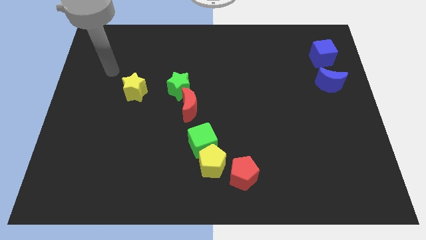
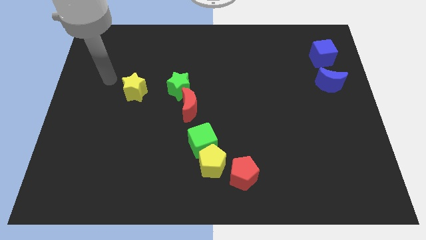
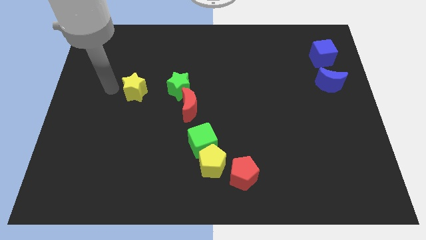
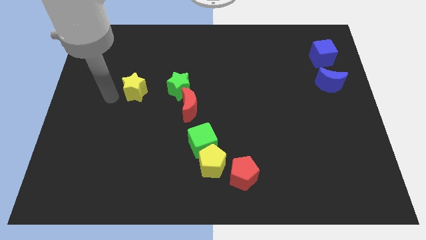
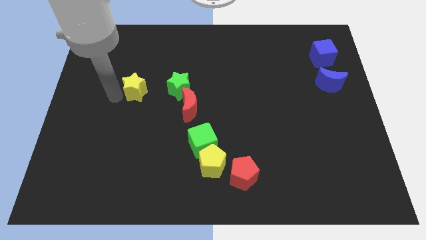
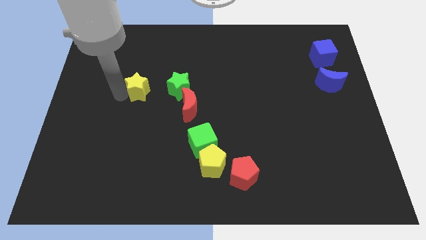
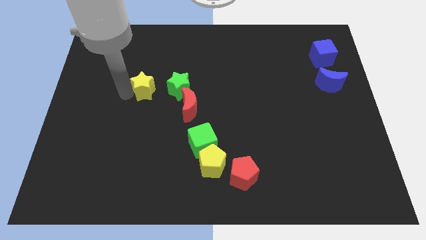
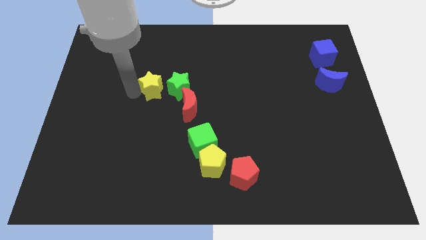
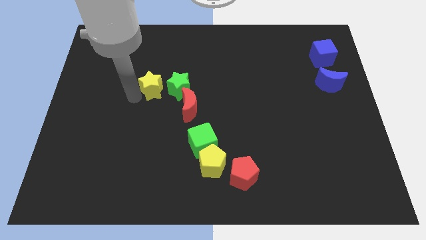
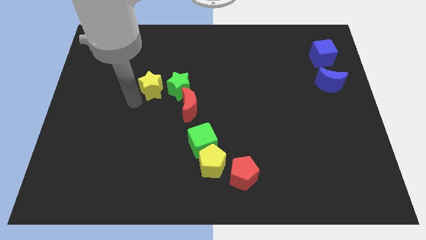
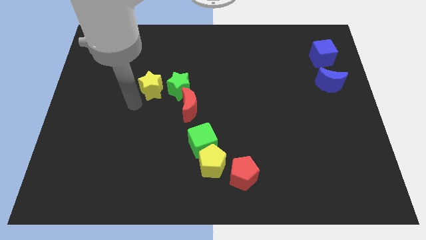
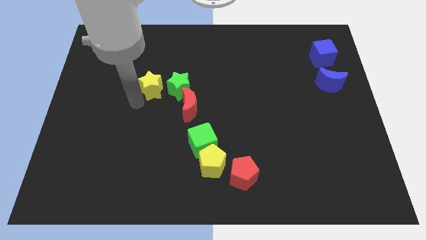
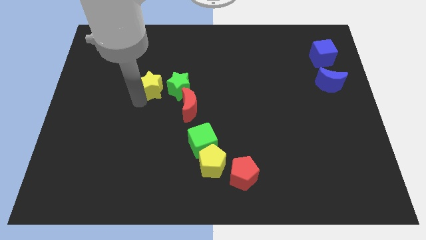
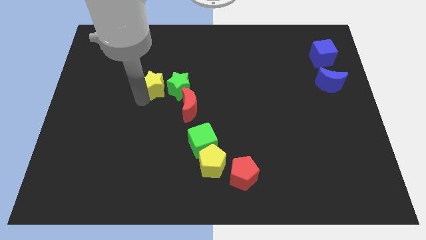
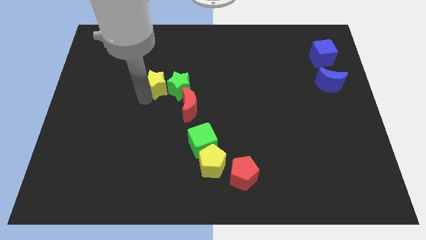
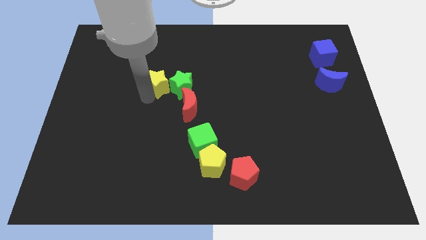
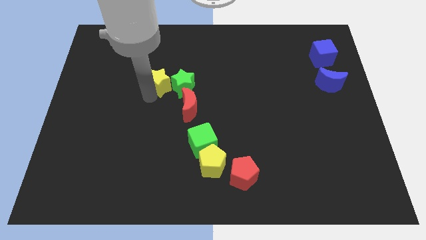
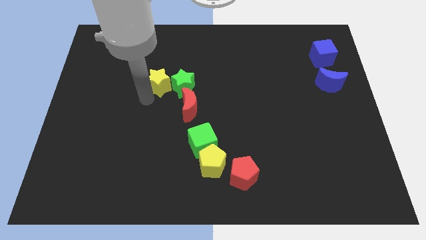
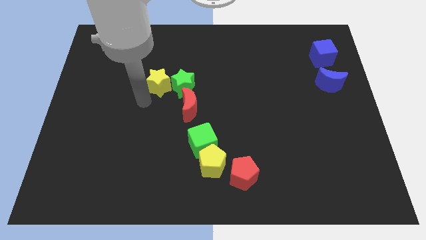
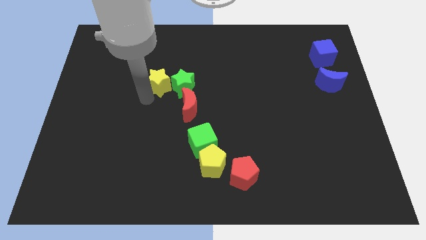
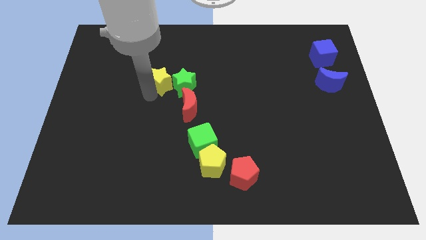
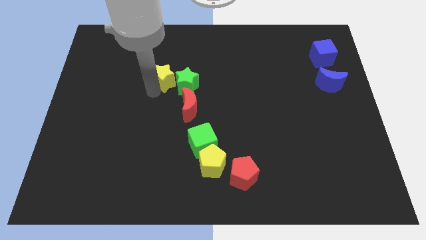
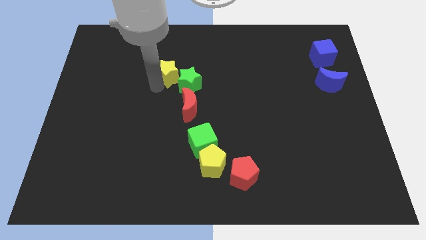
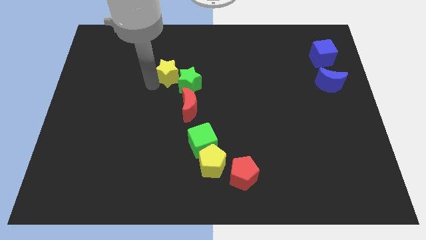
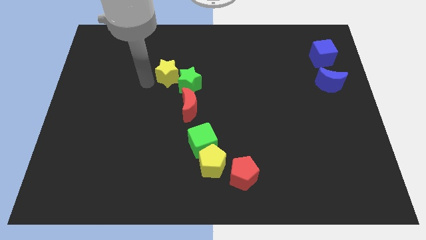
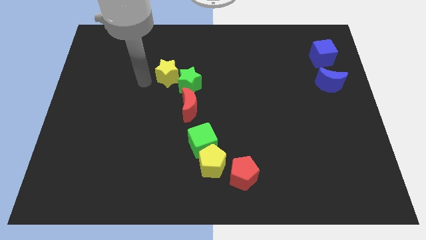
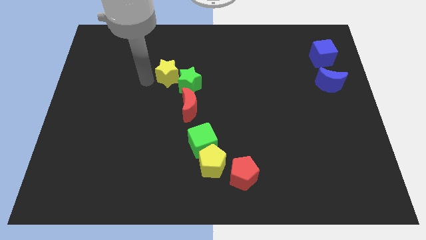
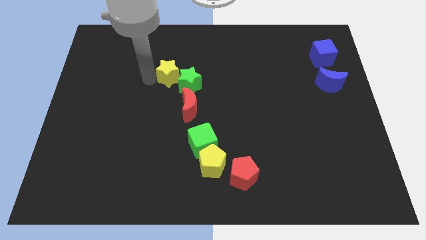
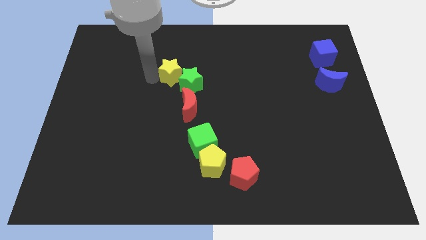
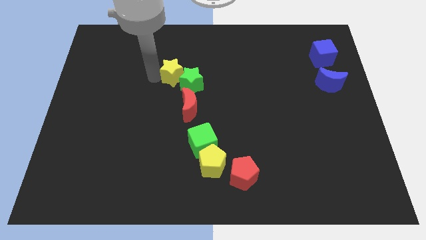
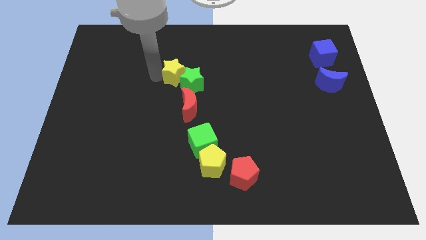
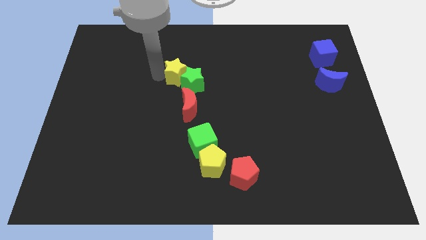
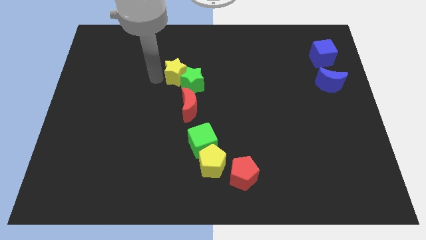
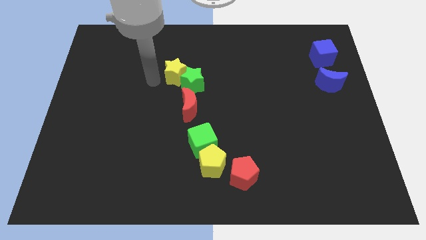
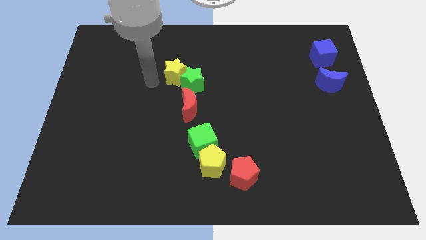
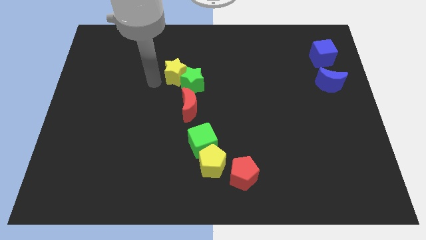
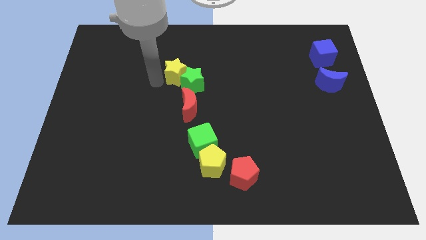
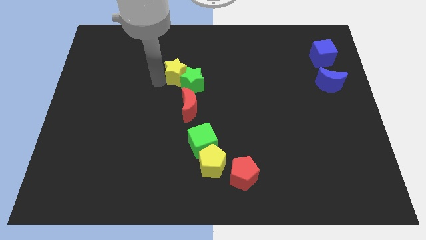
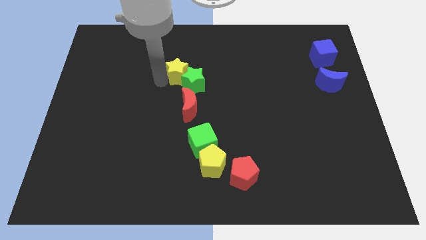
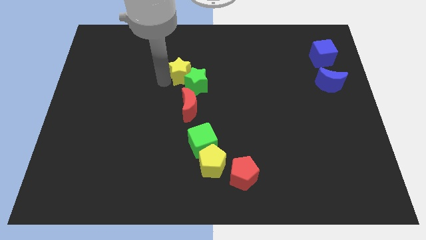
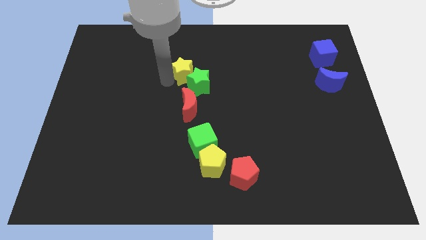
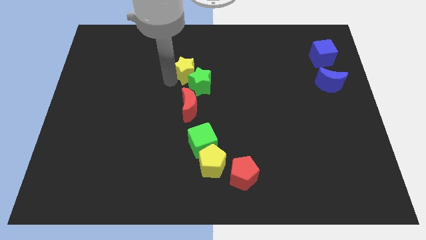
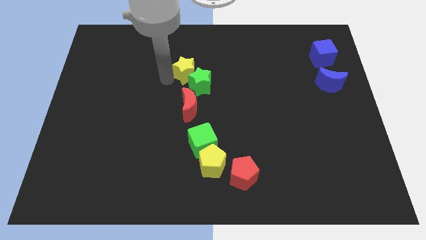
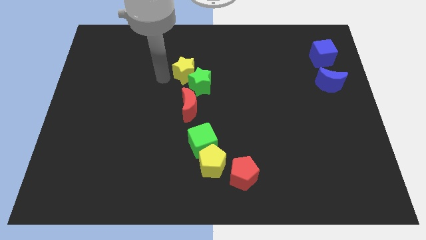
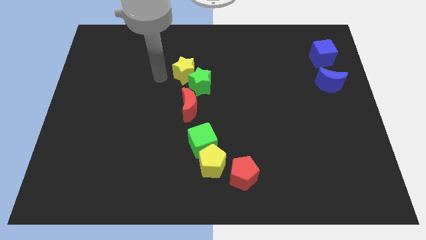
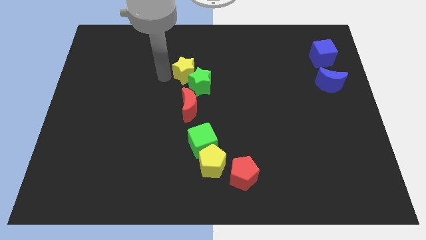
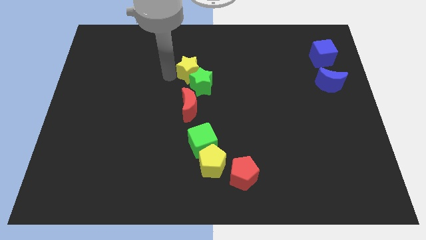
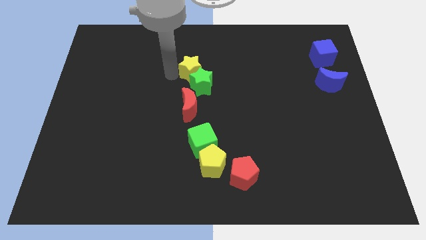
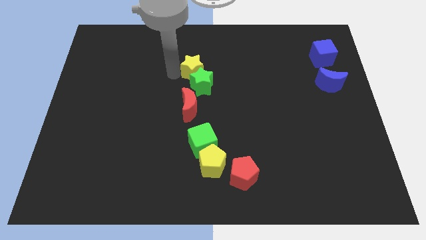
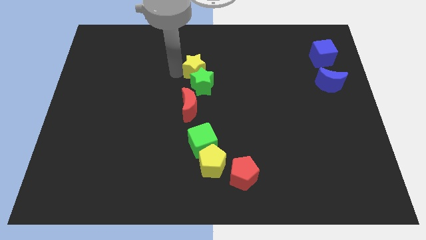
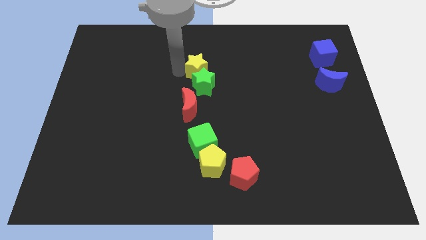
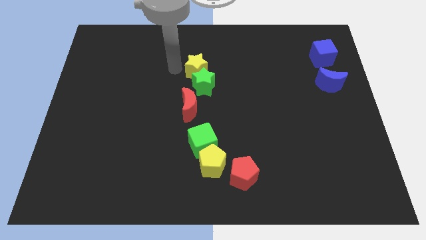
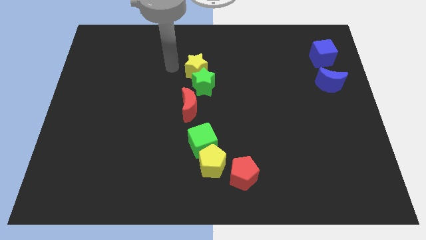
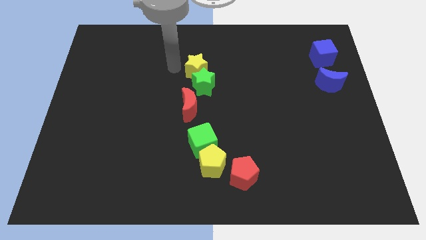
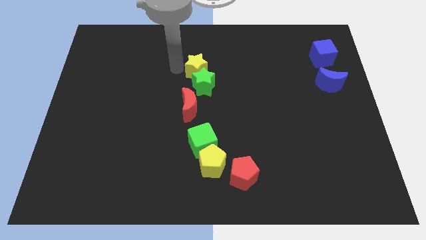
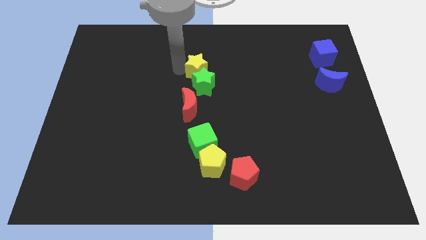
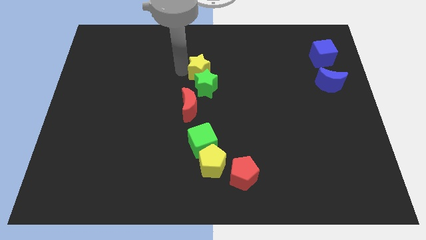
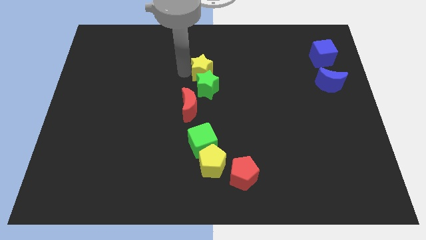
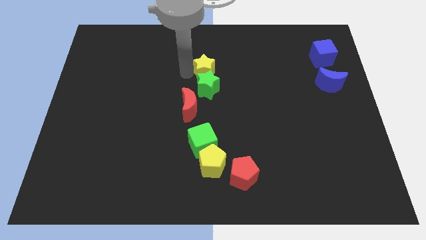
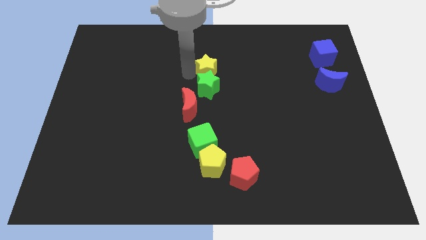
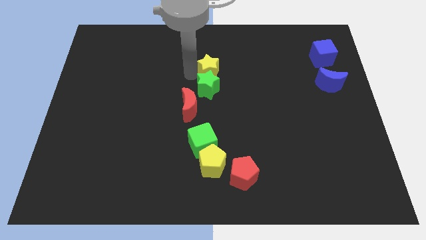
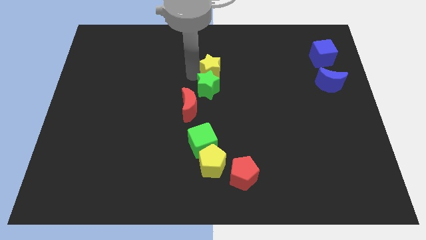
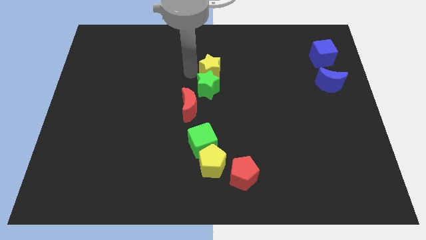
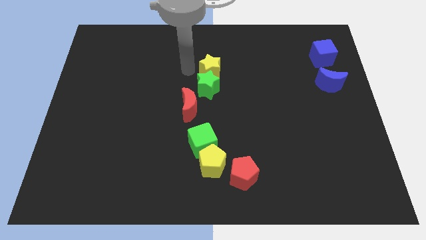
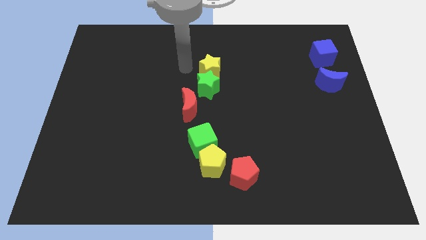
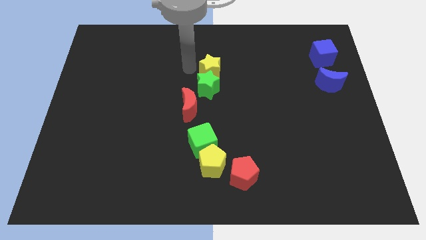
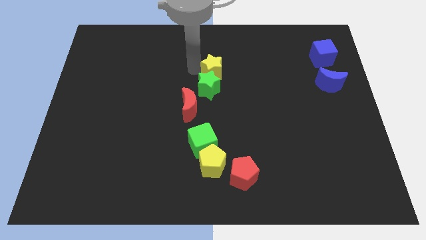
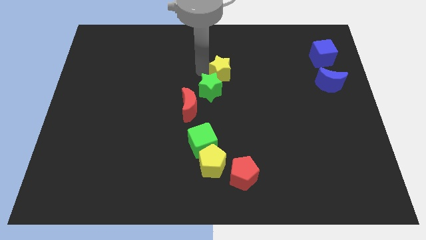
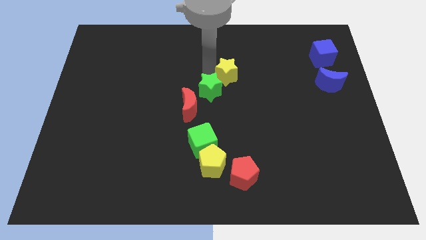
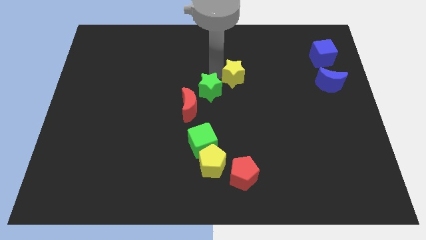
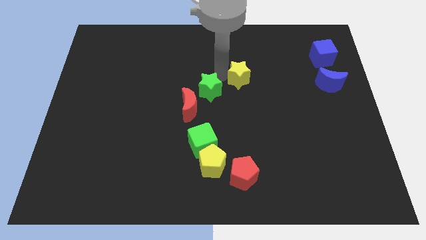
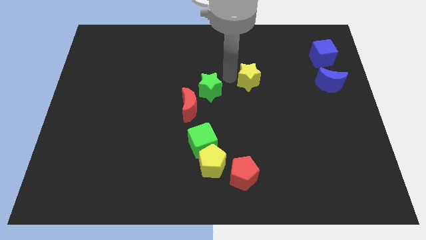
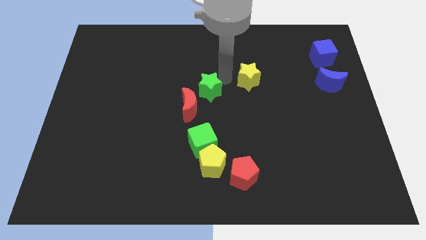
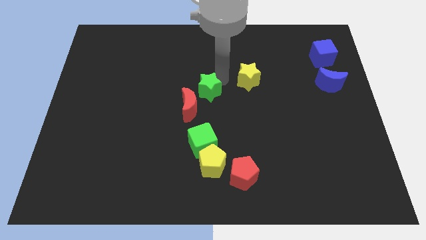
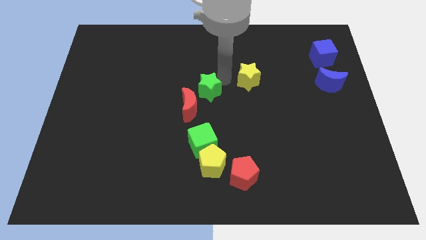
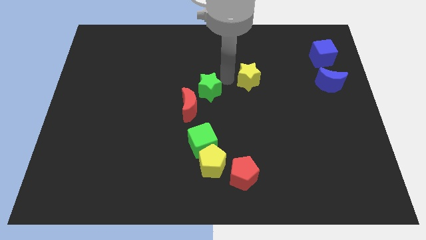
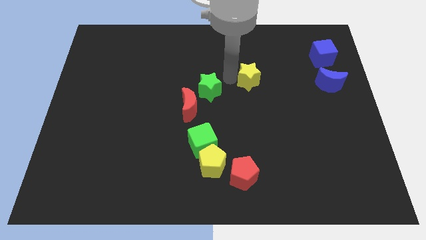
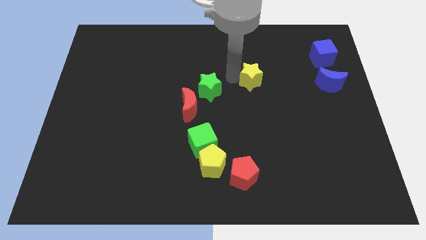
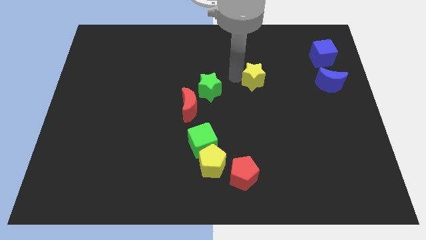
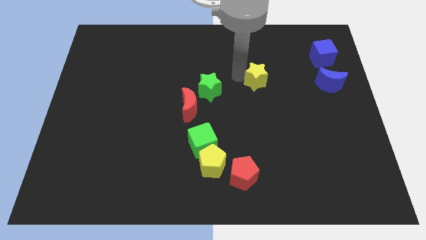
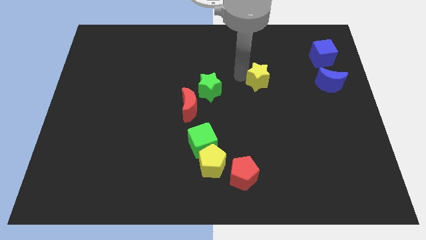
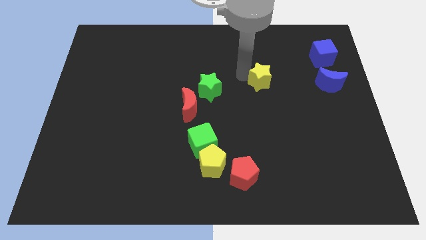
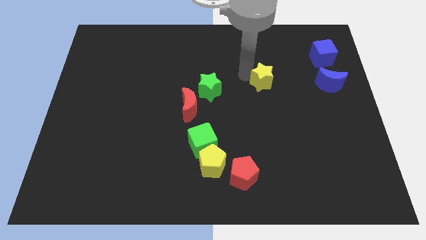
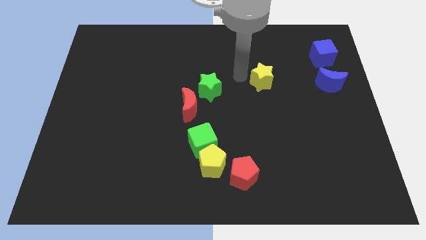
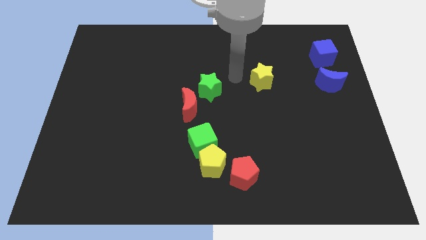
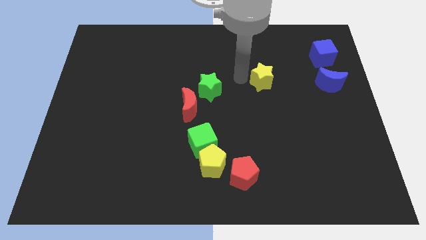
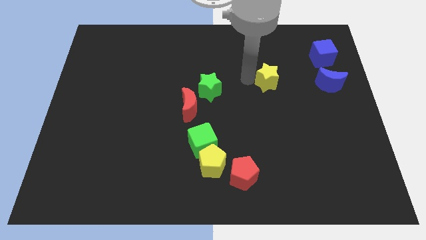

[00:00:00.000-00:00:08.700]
move the yellow star to the left of the blue moon
